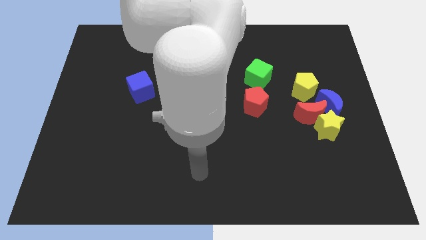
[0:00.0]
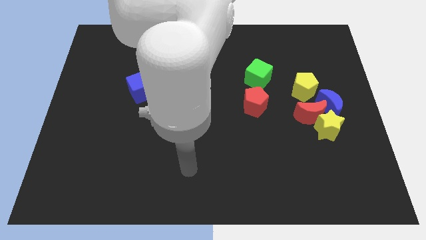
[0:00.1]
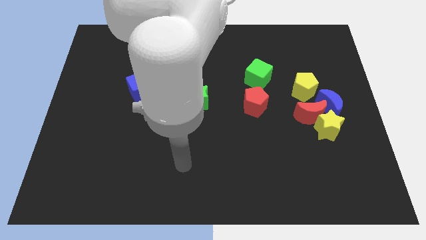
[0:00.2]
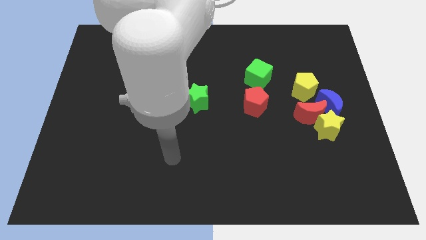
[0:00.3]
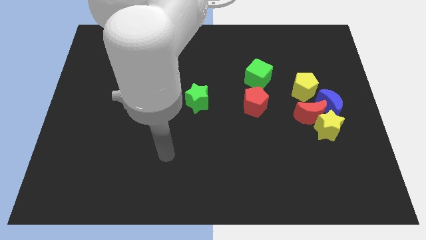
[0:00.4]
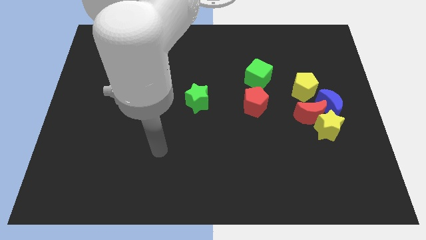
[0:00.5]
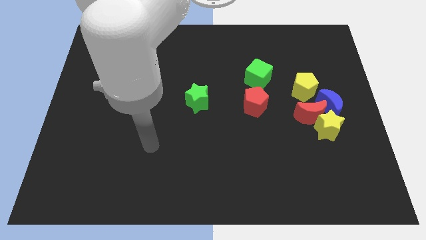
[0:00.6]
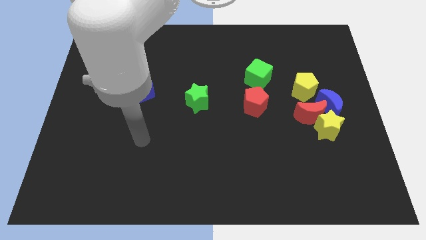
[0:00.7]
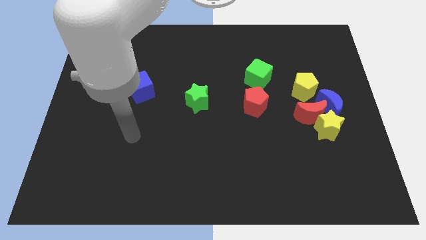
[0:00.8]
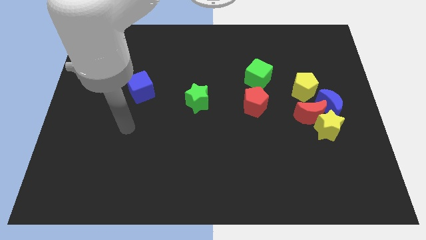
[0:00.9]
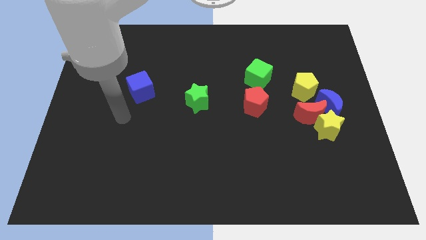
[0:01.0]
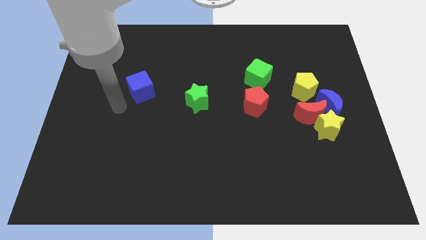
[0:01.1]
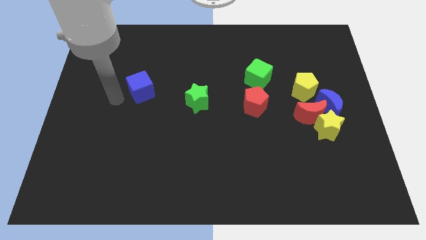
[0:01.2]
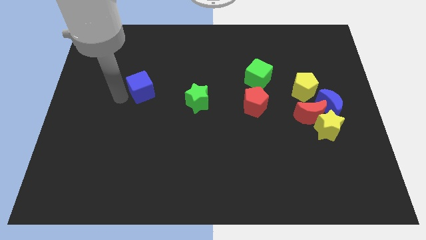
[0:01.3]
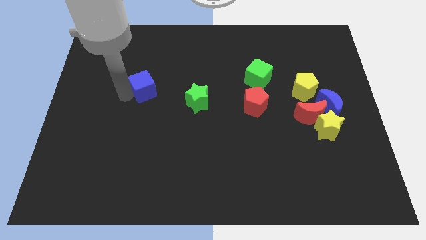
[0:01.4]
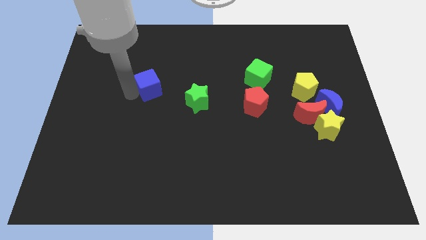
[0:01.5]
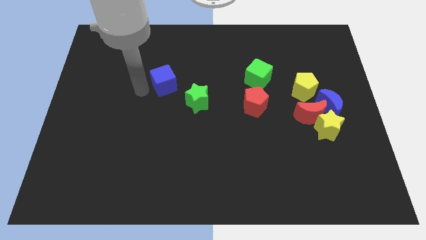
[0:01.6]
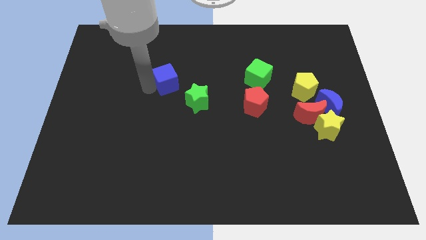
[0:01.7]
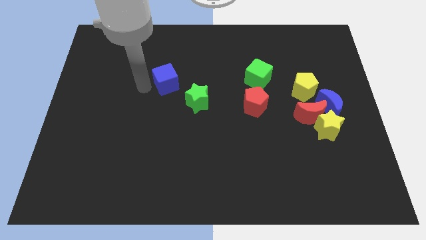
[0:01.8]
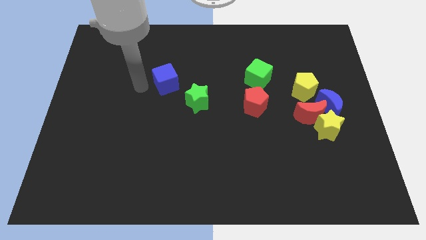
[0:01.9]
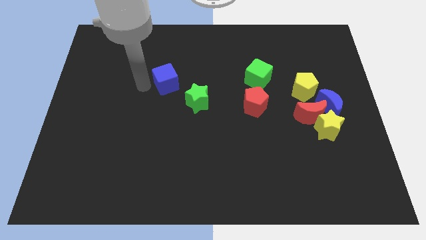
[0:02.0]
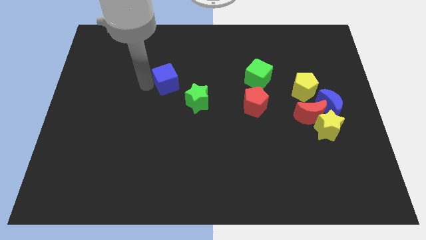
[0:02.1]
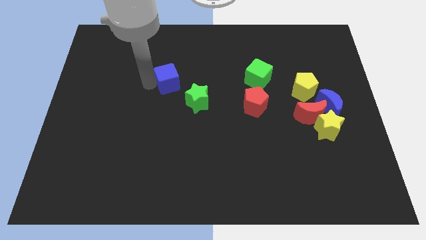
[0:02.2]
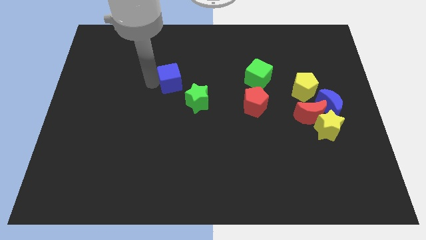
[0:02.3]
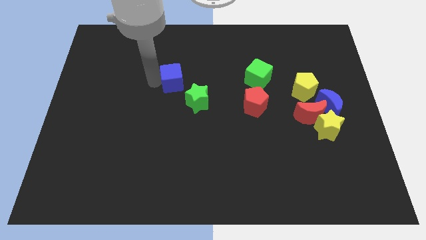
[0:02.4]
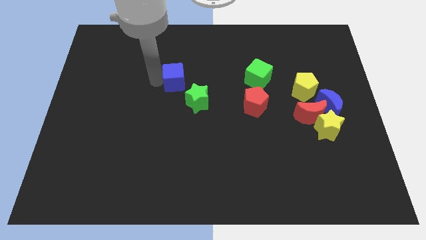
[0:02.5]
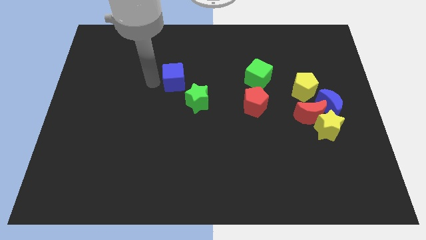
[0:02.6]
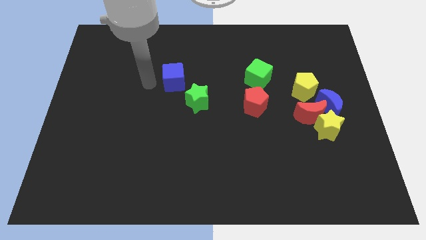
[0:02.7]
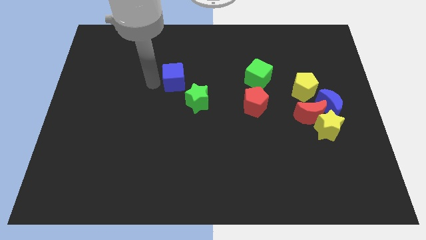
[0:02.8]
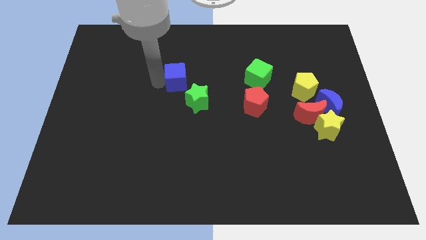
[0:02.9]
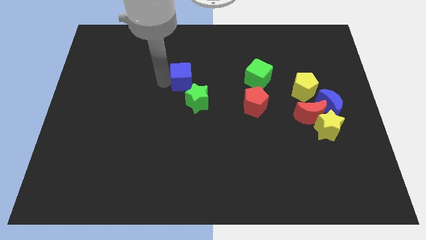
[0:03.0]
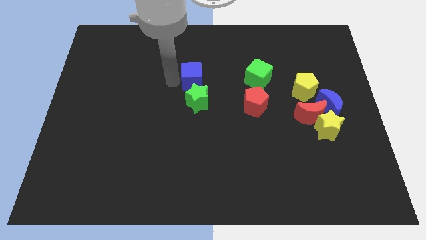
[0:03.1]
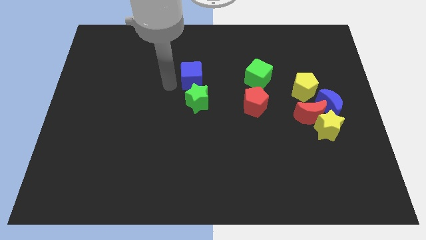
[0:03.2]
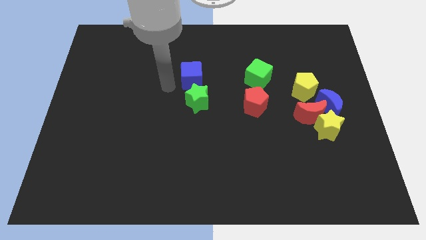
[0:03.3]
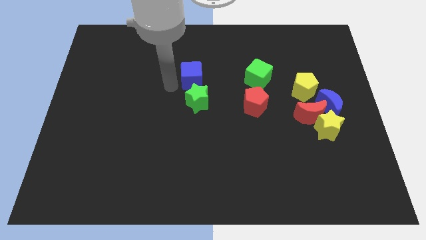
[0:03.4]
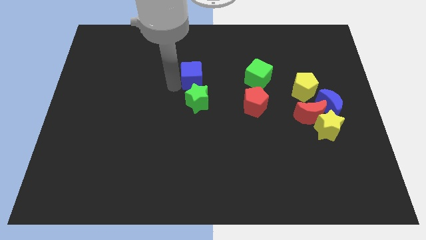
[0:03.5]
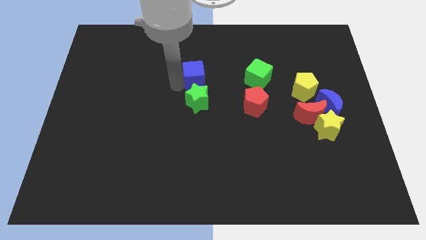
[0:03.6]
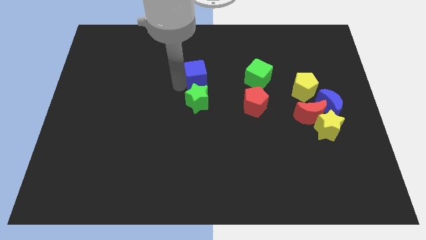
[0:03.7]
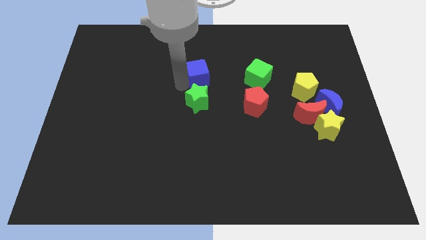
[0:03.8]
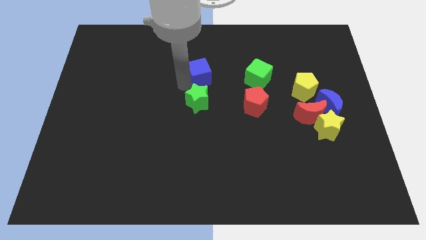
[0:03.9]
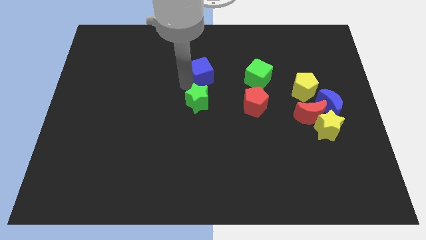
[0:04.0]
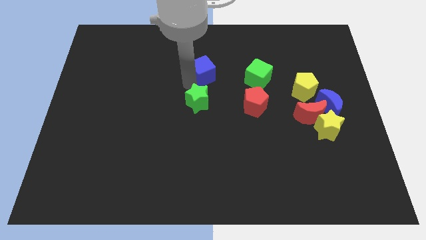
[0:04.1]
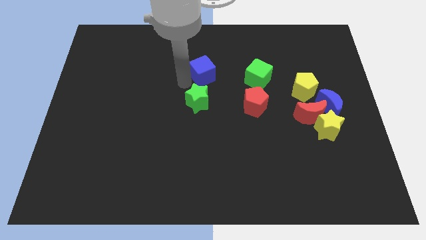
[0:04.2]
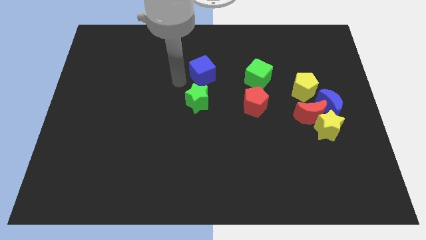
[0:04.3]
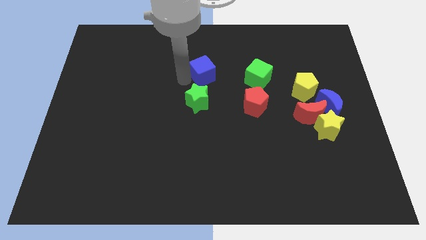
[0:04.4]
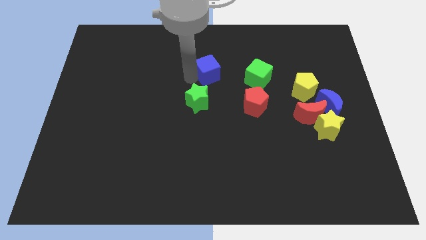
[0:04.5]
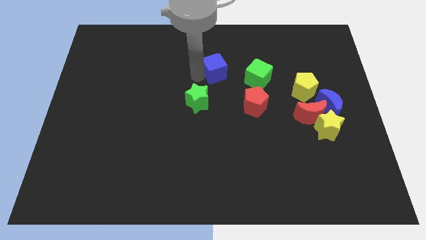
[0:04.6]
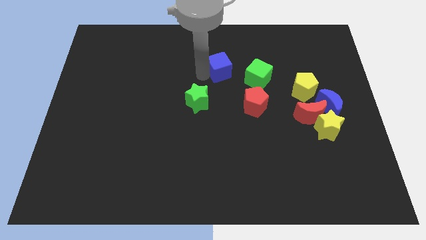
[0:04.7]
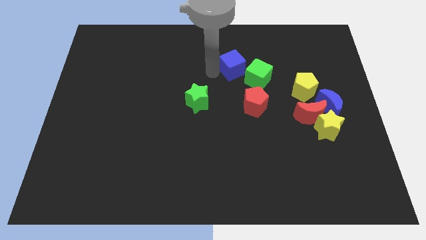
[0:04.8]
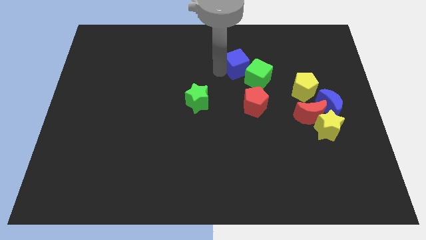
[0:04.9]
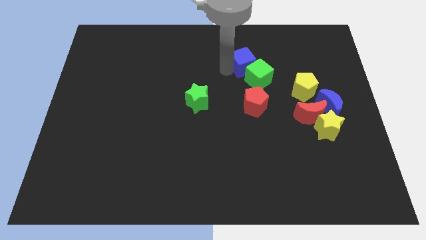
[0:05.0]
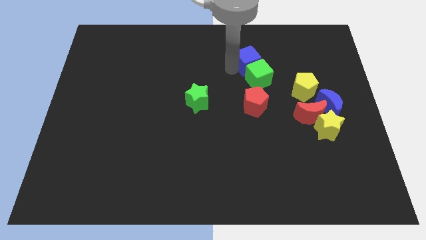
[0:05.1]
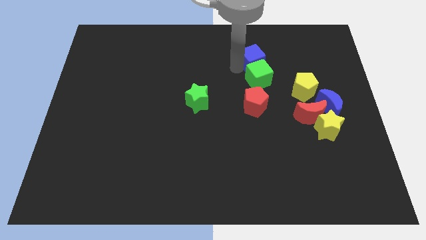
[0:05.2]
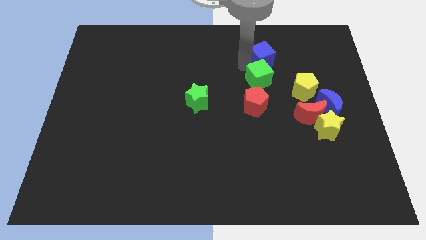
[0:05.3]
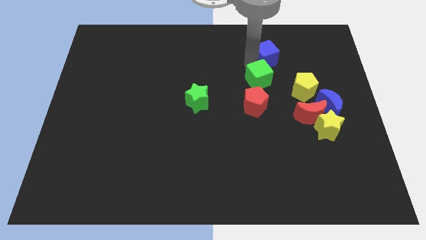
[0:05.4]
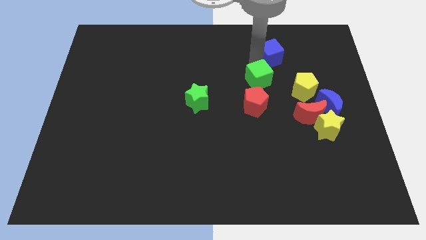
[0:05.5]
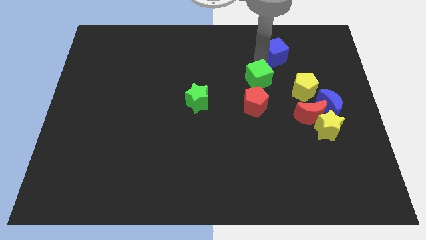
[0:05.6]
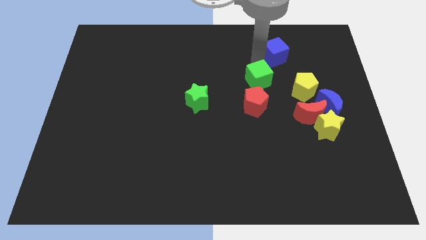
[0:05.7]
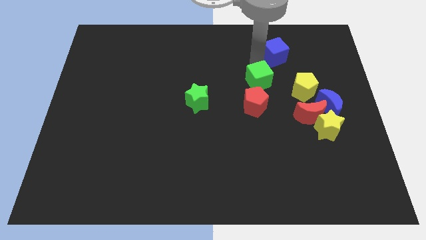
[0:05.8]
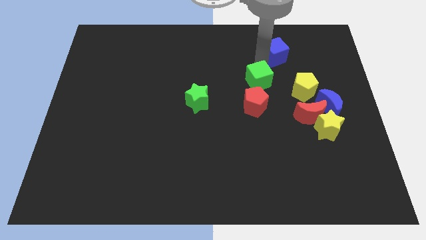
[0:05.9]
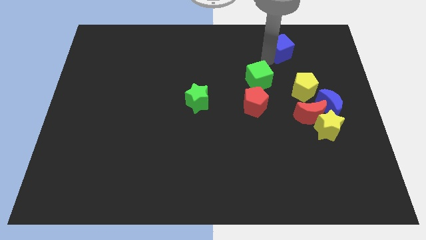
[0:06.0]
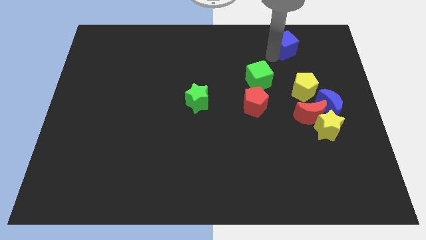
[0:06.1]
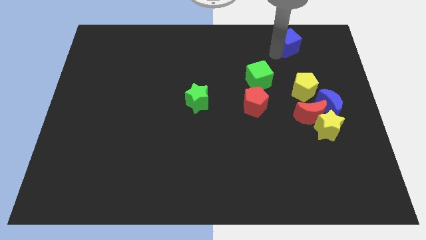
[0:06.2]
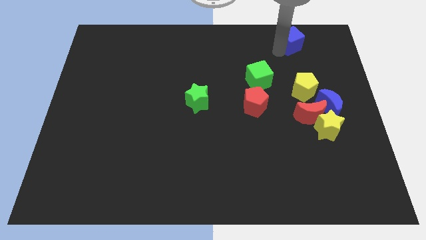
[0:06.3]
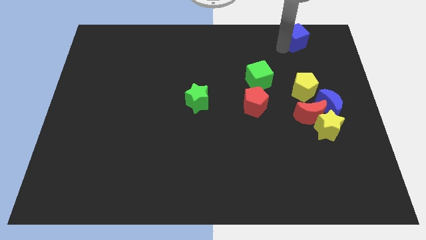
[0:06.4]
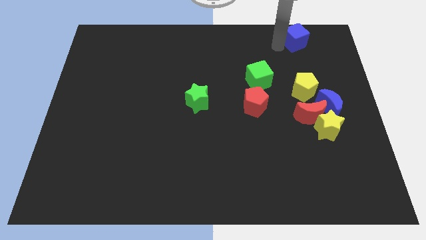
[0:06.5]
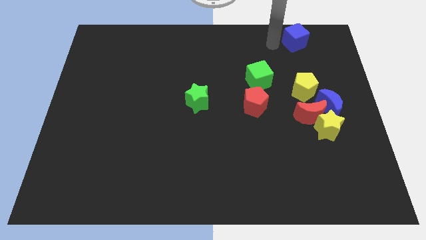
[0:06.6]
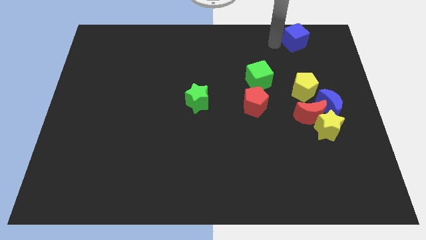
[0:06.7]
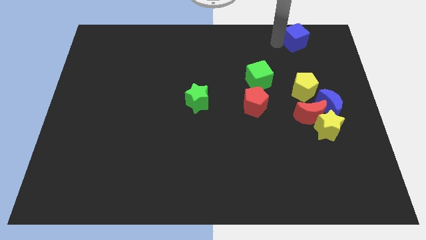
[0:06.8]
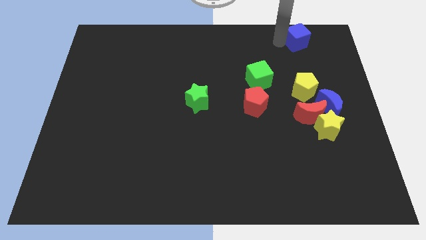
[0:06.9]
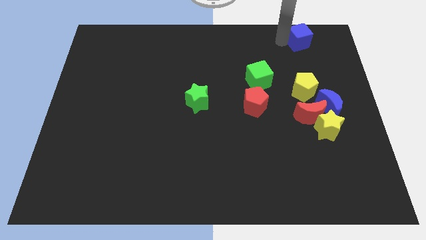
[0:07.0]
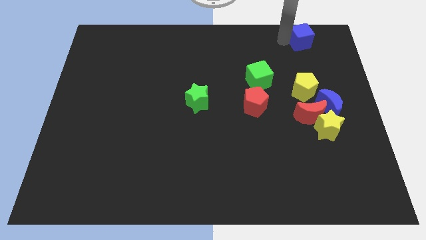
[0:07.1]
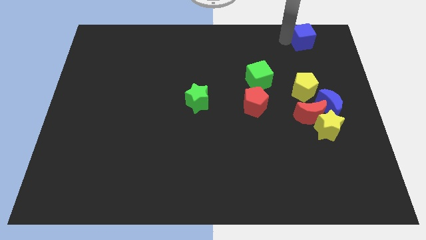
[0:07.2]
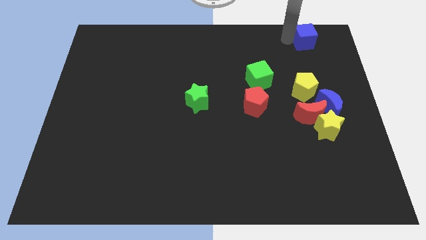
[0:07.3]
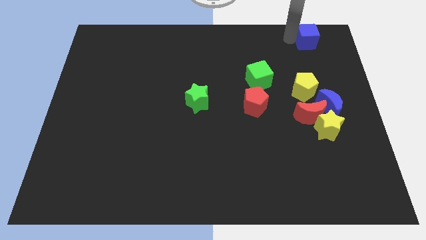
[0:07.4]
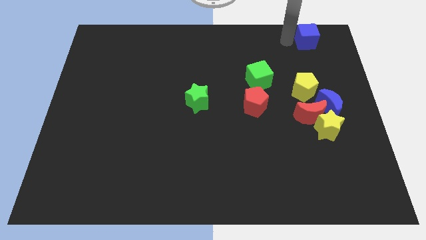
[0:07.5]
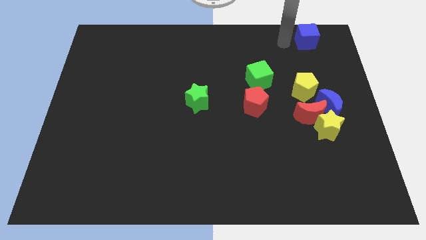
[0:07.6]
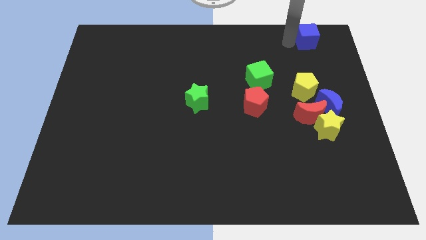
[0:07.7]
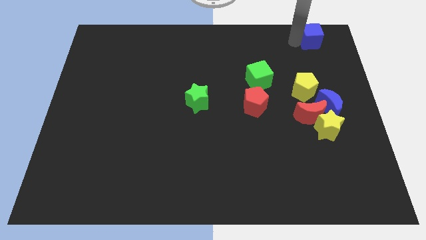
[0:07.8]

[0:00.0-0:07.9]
push the blue cube to the upper right corner
